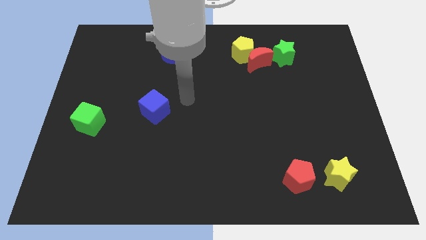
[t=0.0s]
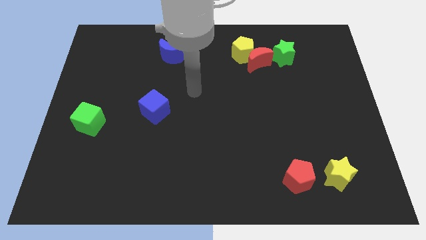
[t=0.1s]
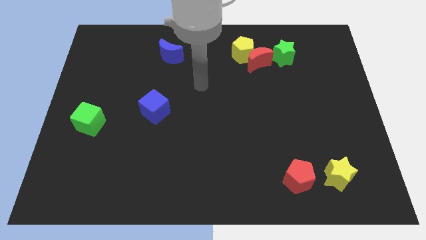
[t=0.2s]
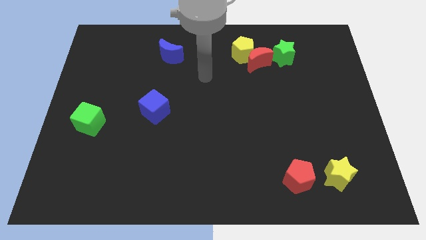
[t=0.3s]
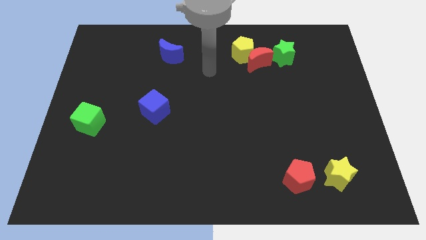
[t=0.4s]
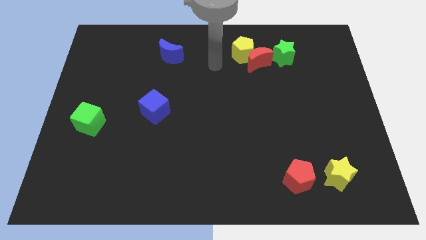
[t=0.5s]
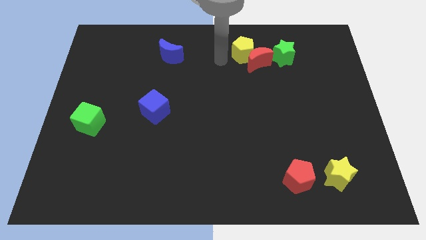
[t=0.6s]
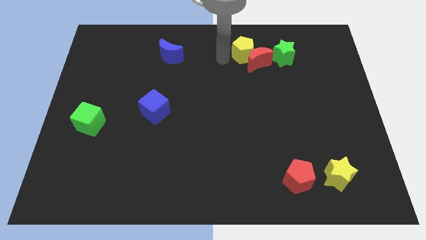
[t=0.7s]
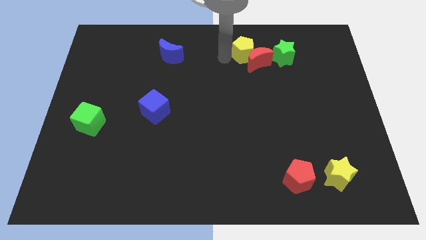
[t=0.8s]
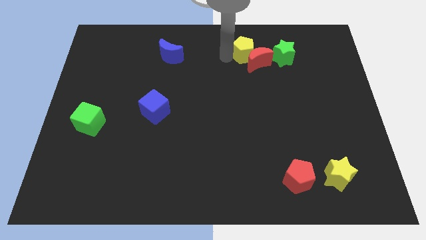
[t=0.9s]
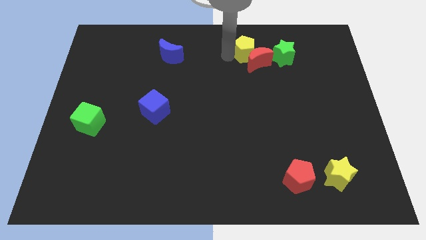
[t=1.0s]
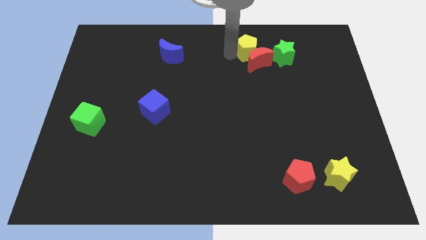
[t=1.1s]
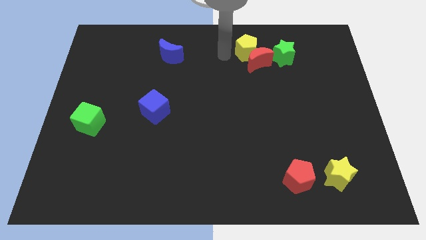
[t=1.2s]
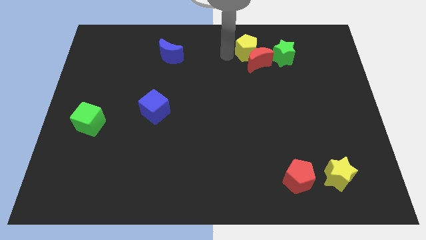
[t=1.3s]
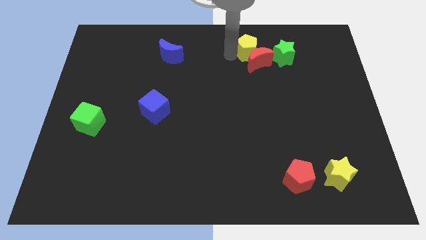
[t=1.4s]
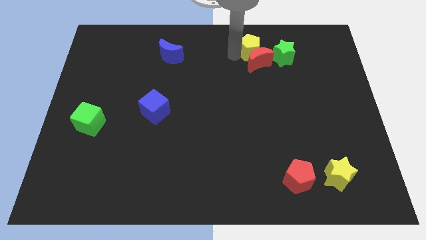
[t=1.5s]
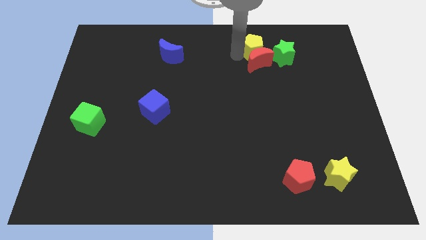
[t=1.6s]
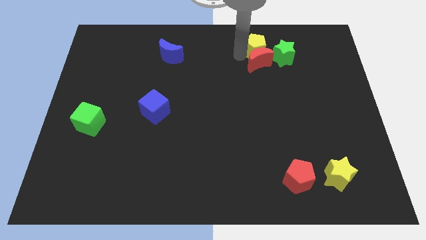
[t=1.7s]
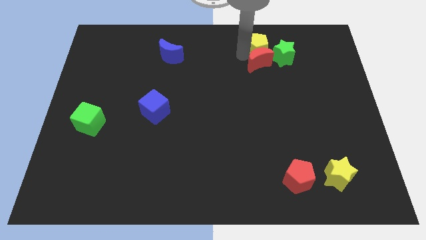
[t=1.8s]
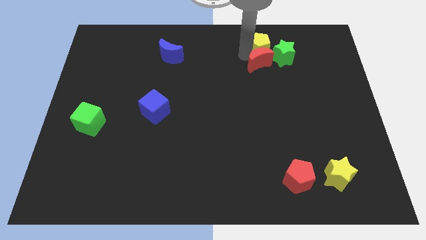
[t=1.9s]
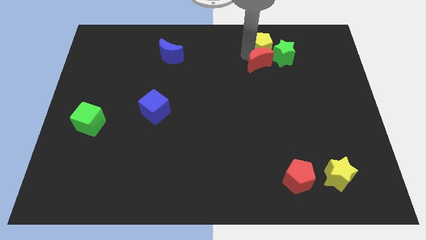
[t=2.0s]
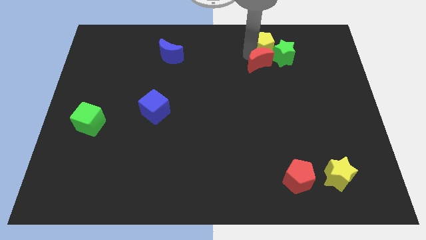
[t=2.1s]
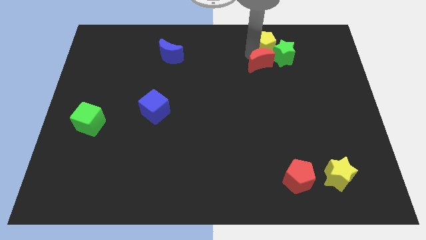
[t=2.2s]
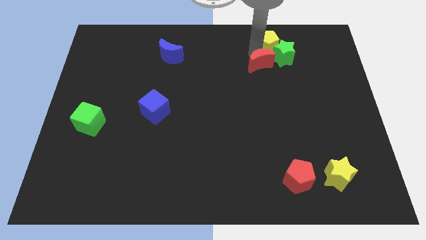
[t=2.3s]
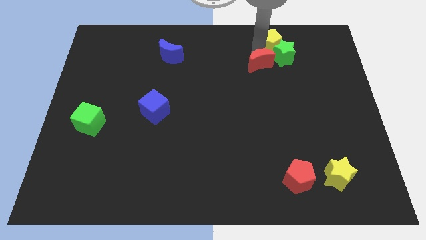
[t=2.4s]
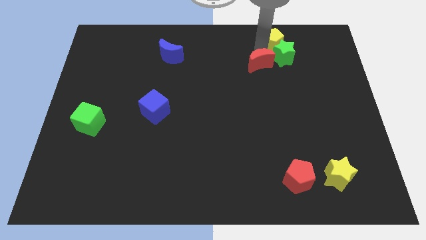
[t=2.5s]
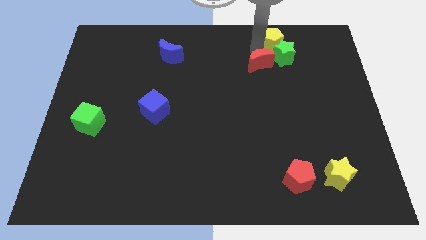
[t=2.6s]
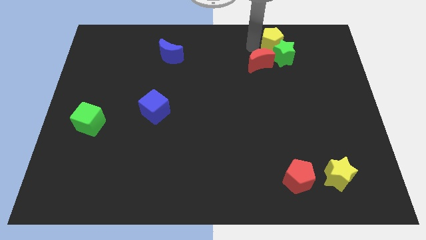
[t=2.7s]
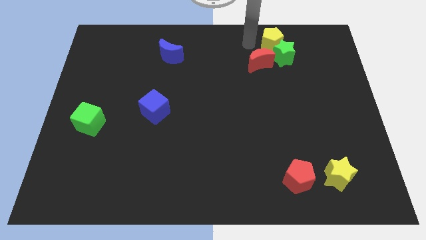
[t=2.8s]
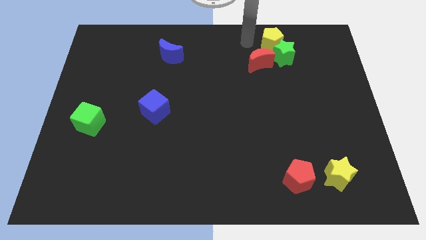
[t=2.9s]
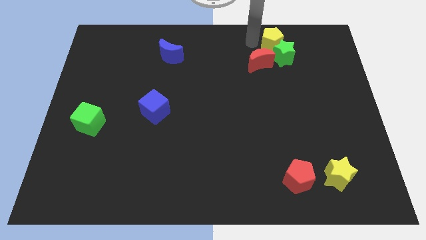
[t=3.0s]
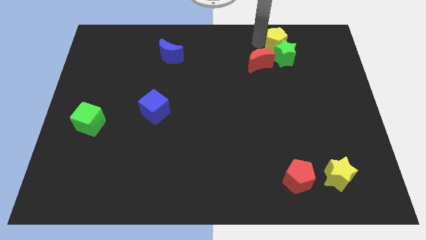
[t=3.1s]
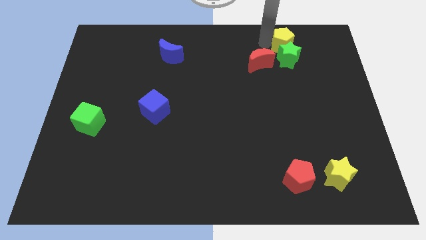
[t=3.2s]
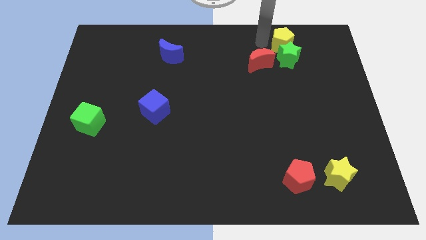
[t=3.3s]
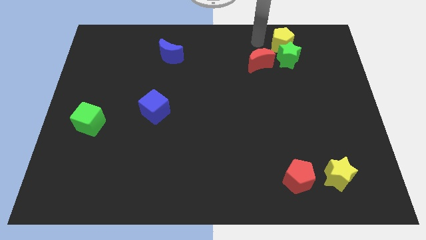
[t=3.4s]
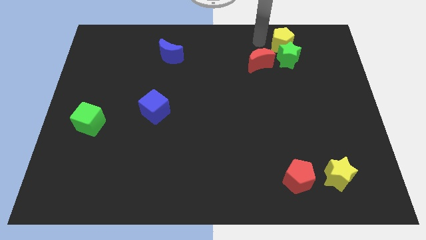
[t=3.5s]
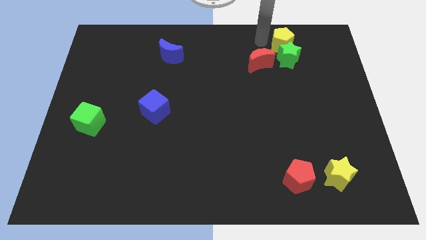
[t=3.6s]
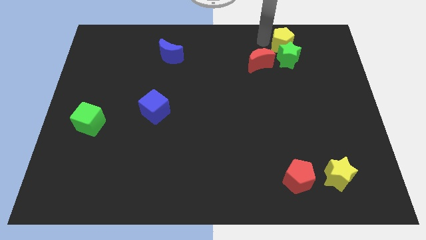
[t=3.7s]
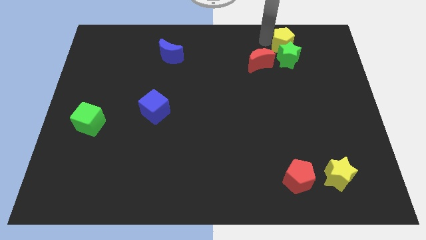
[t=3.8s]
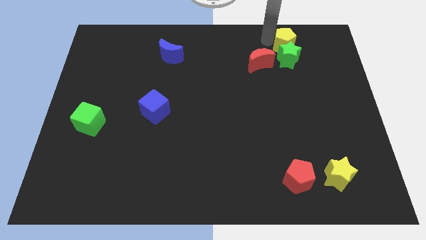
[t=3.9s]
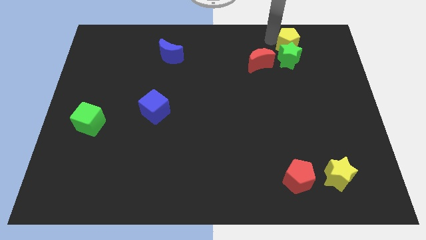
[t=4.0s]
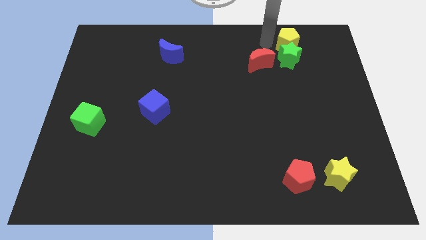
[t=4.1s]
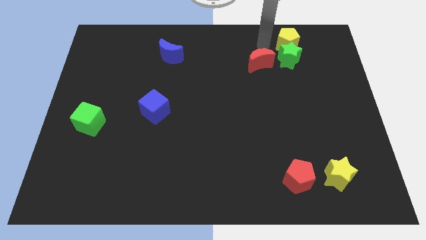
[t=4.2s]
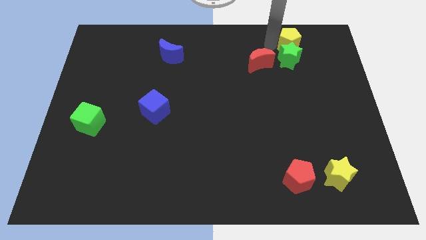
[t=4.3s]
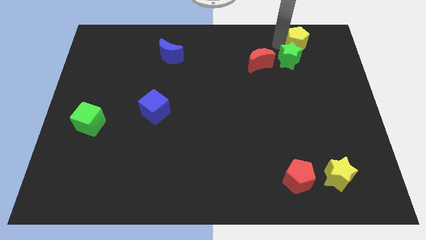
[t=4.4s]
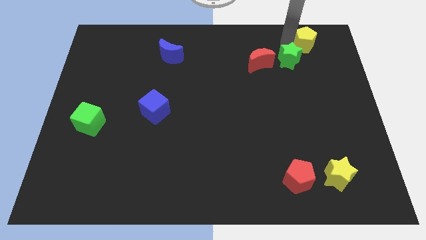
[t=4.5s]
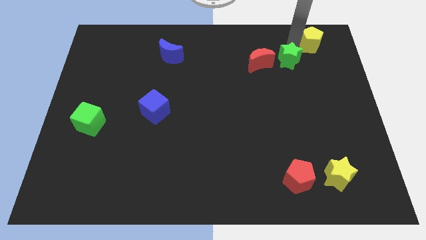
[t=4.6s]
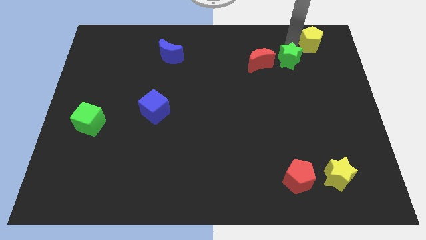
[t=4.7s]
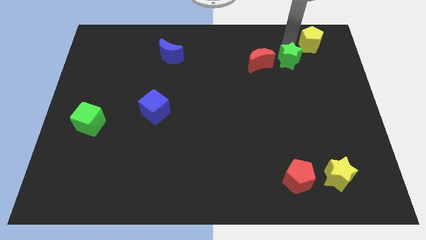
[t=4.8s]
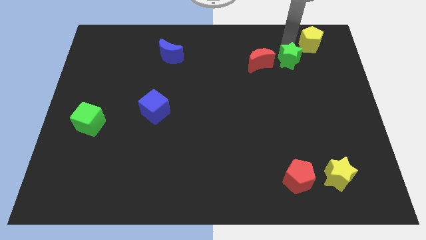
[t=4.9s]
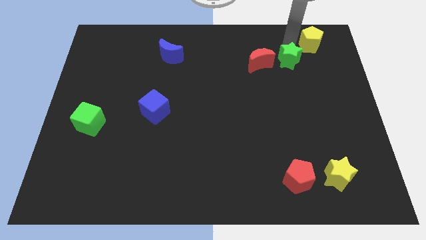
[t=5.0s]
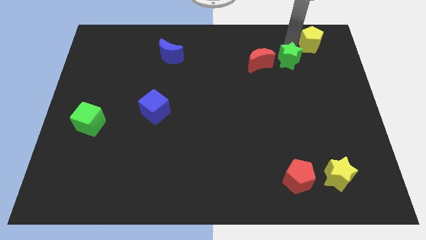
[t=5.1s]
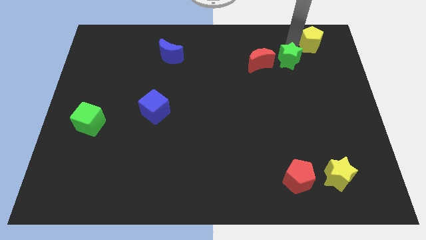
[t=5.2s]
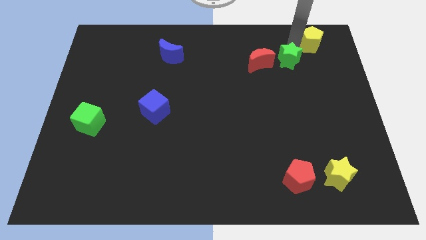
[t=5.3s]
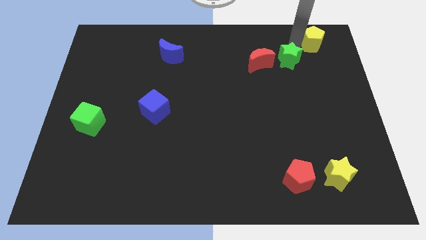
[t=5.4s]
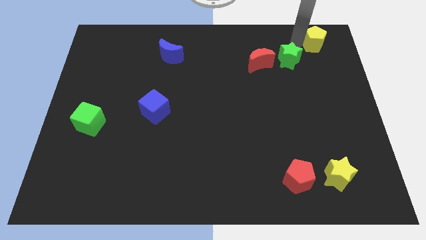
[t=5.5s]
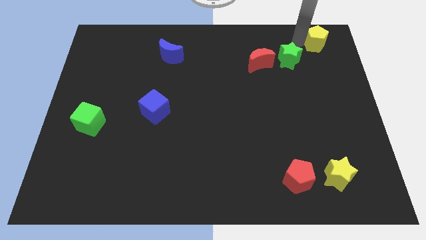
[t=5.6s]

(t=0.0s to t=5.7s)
slide the yellow pentagon to the top right

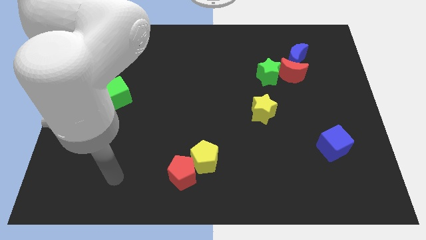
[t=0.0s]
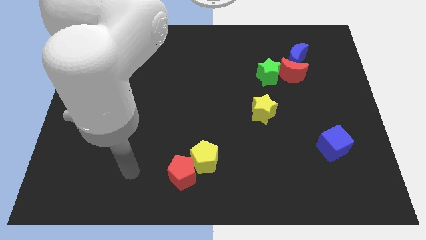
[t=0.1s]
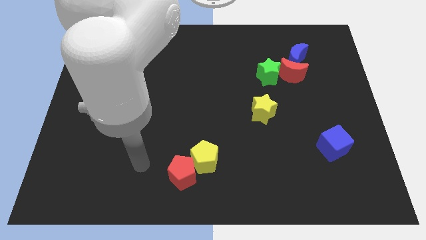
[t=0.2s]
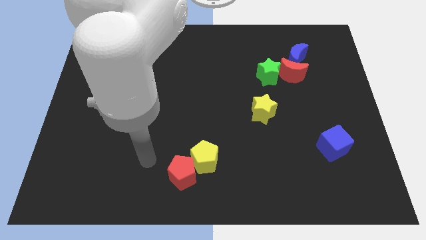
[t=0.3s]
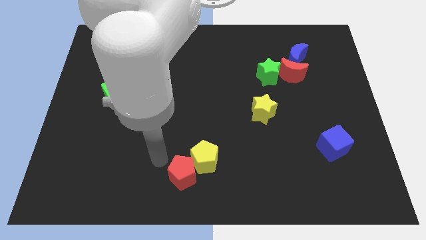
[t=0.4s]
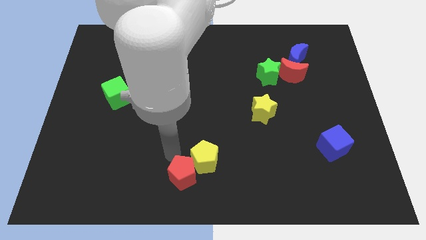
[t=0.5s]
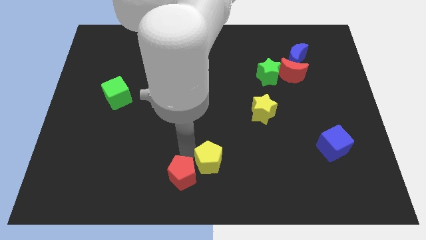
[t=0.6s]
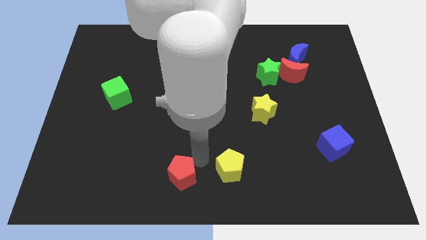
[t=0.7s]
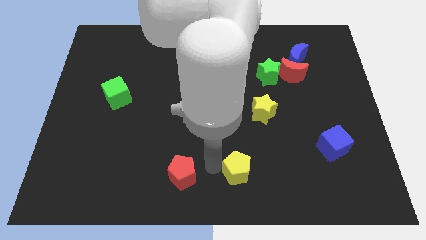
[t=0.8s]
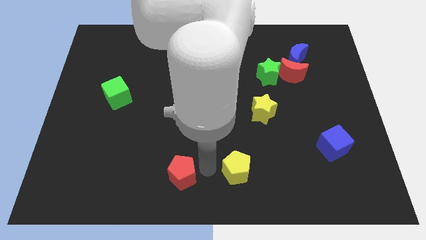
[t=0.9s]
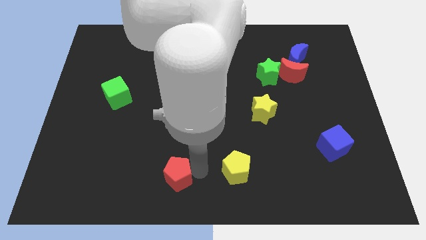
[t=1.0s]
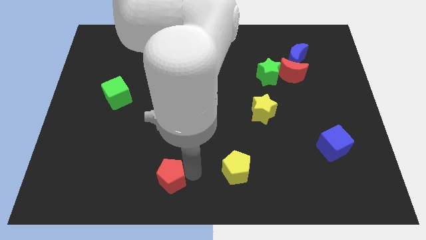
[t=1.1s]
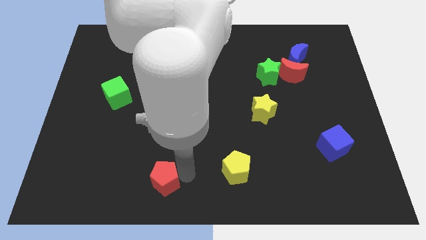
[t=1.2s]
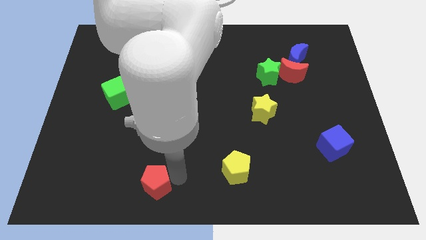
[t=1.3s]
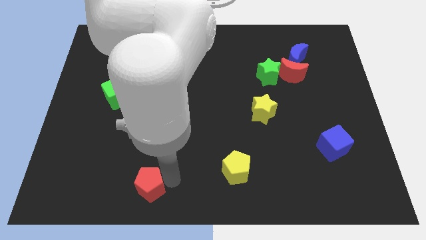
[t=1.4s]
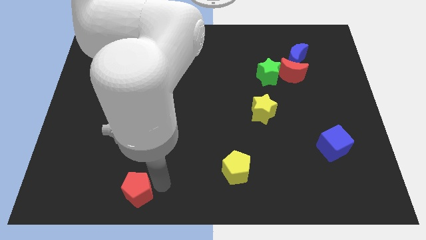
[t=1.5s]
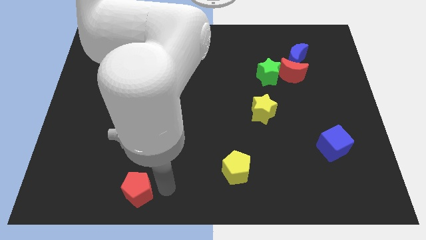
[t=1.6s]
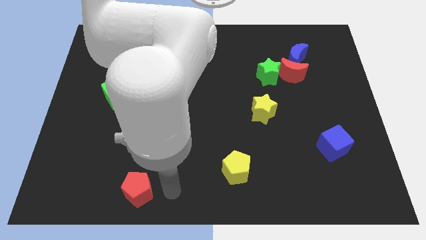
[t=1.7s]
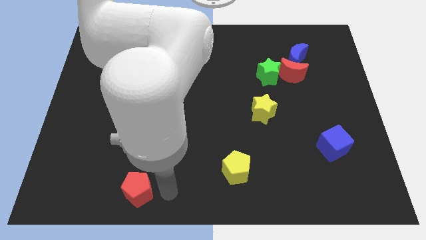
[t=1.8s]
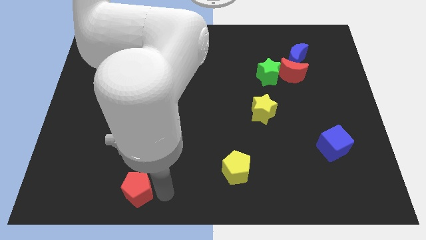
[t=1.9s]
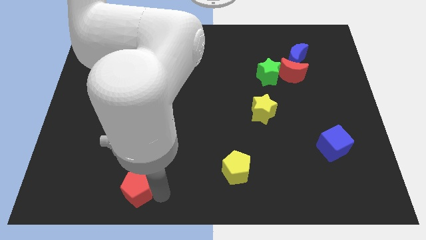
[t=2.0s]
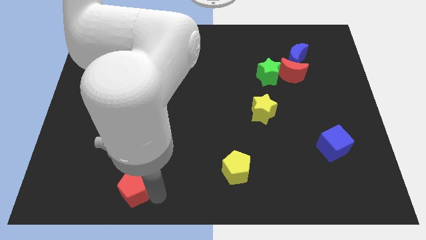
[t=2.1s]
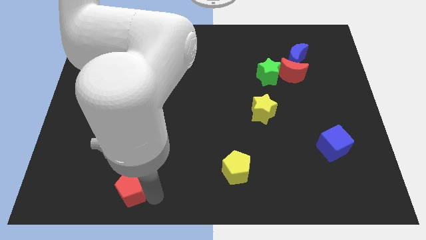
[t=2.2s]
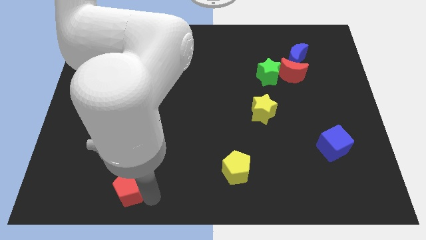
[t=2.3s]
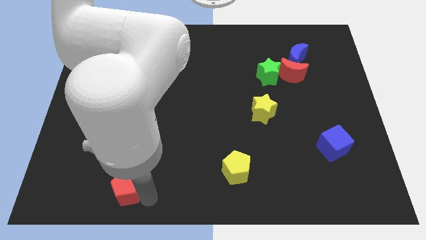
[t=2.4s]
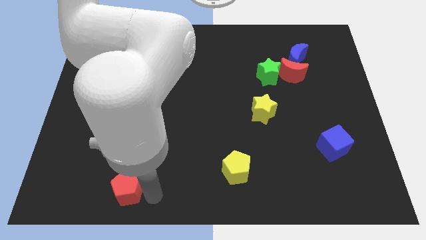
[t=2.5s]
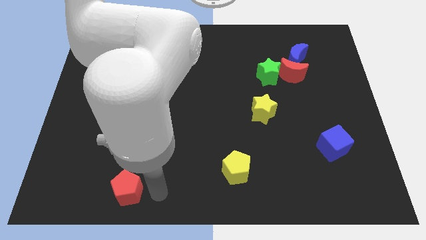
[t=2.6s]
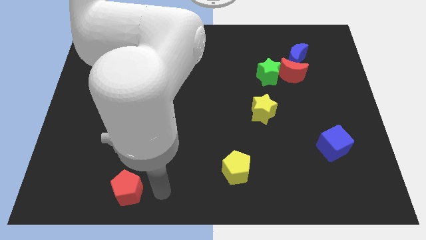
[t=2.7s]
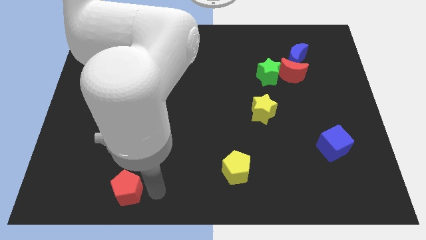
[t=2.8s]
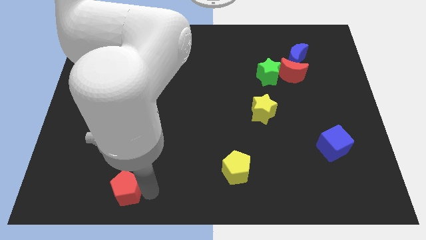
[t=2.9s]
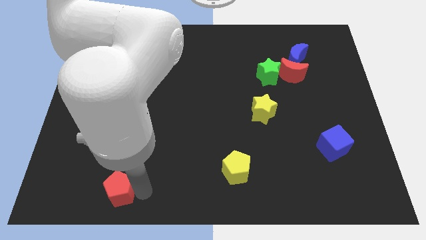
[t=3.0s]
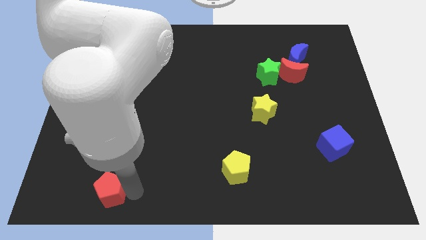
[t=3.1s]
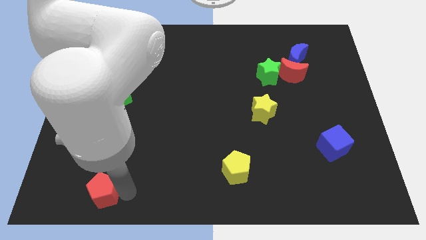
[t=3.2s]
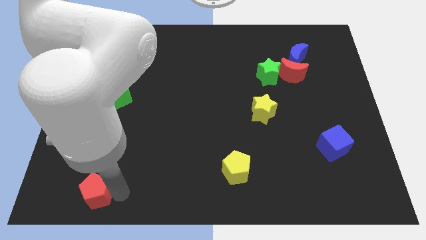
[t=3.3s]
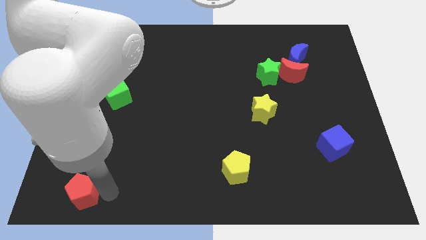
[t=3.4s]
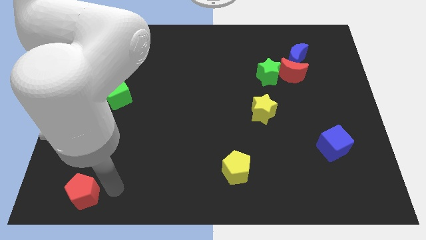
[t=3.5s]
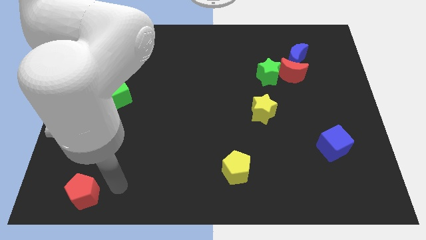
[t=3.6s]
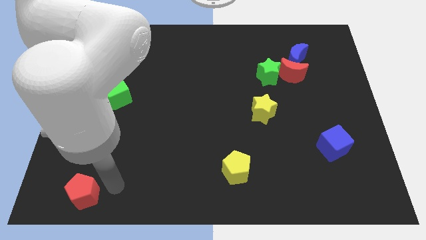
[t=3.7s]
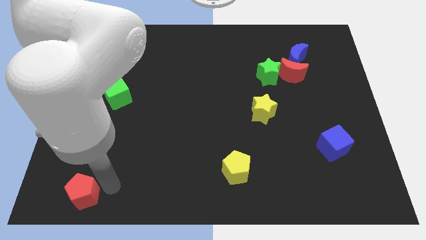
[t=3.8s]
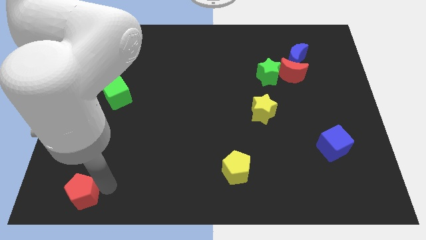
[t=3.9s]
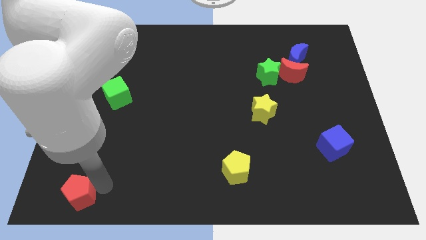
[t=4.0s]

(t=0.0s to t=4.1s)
slide the red pentagon to the lower left corner
